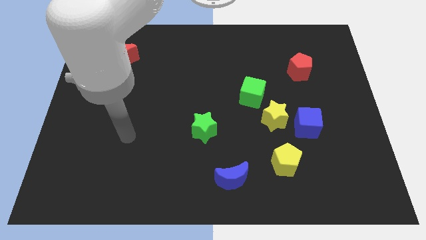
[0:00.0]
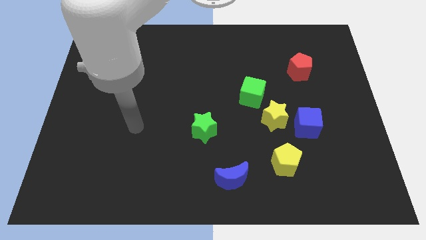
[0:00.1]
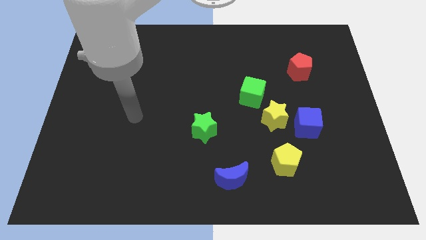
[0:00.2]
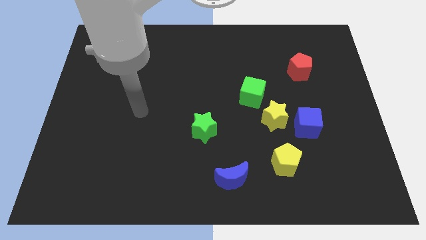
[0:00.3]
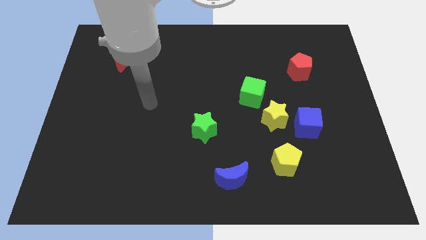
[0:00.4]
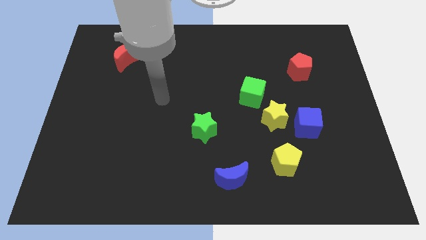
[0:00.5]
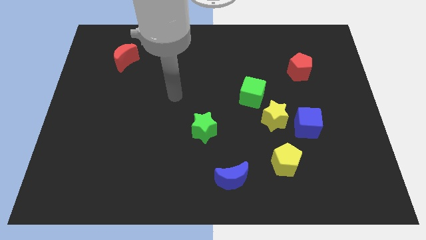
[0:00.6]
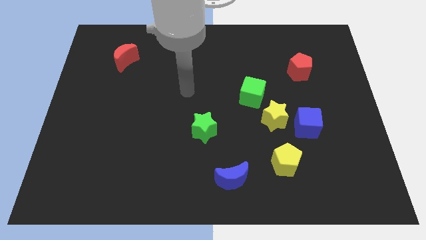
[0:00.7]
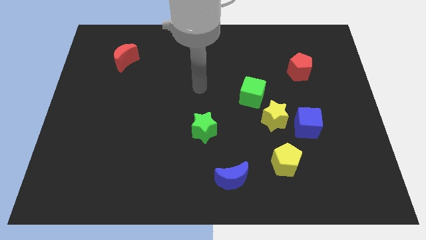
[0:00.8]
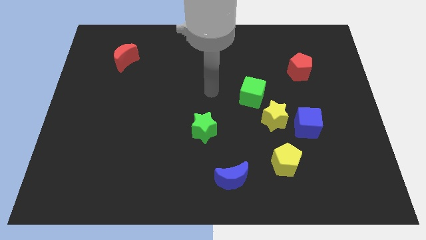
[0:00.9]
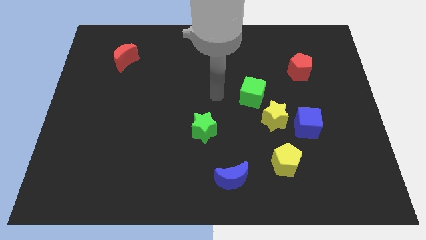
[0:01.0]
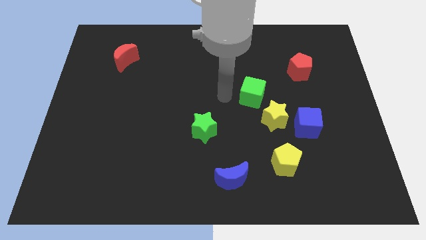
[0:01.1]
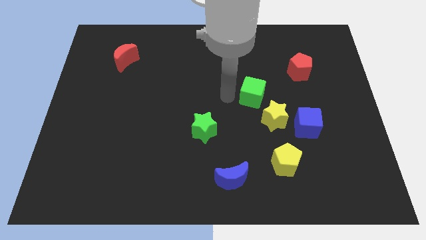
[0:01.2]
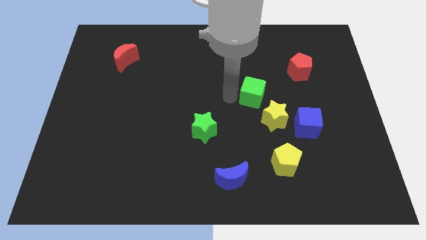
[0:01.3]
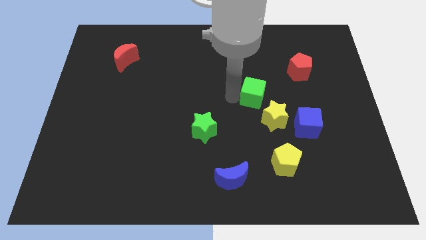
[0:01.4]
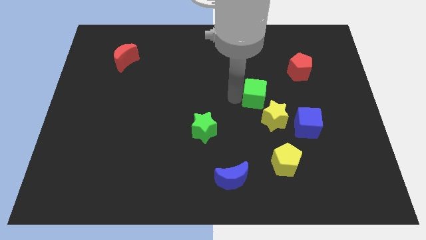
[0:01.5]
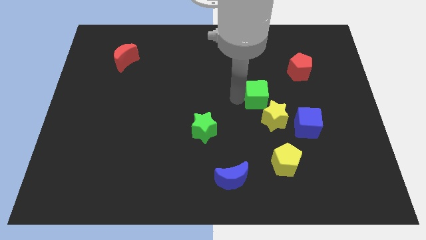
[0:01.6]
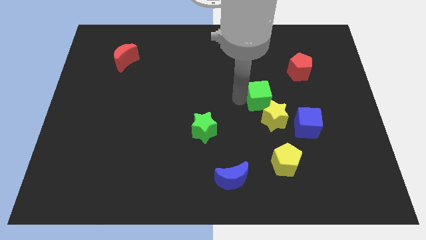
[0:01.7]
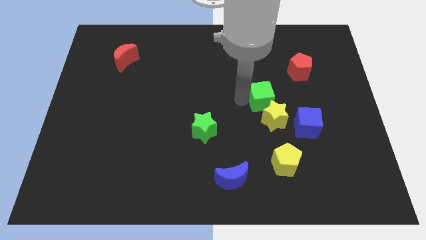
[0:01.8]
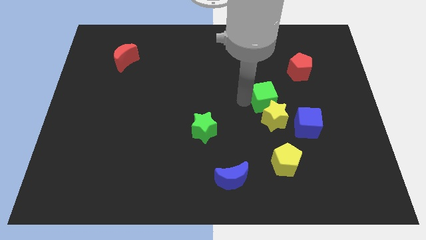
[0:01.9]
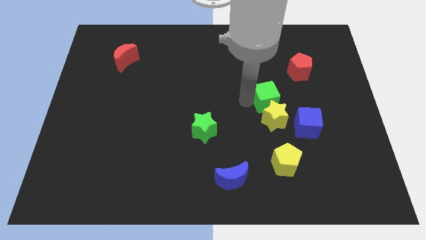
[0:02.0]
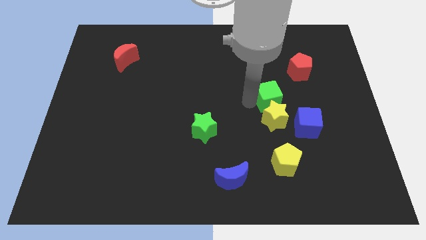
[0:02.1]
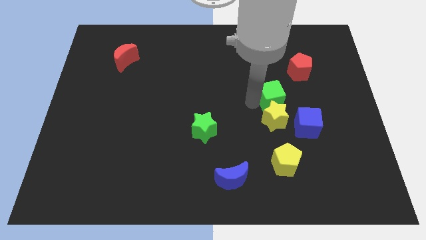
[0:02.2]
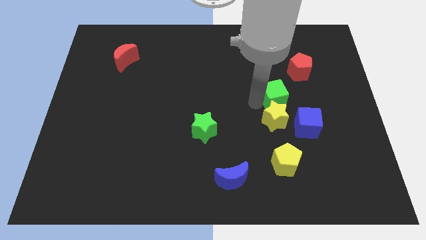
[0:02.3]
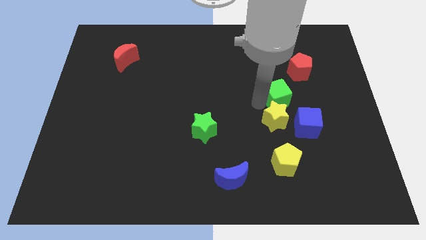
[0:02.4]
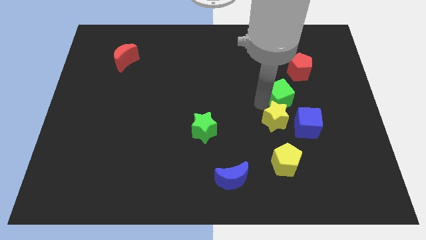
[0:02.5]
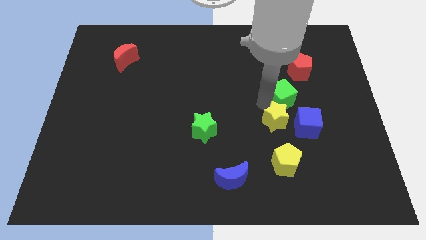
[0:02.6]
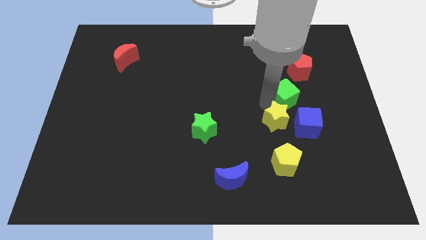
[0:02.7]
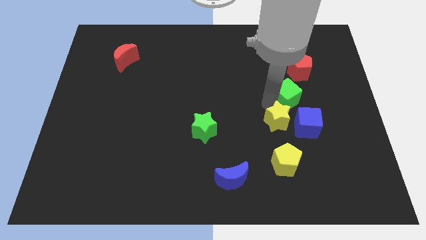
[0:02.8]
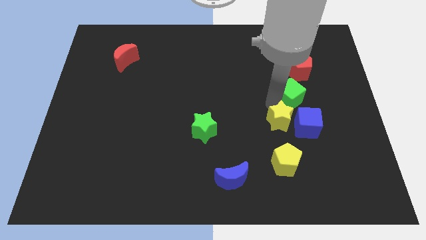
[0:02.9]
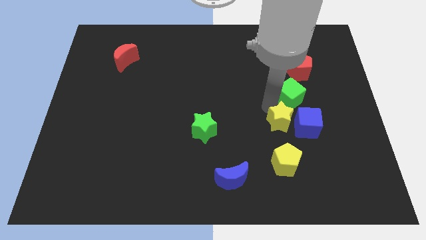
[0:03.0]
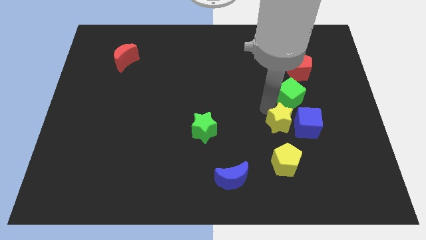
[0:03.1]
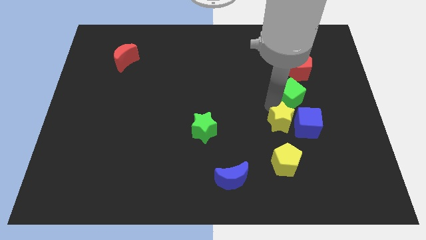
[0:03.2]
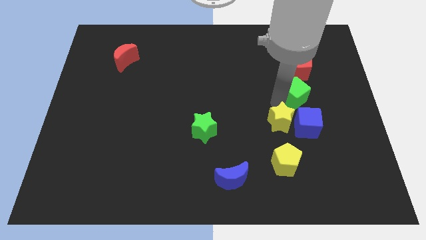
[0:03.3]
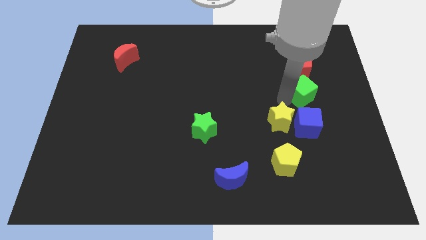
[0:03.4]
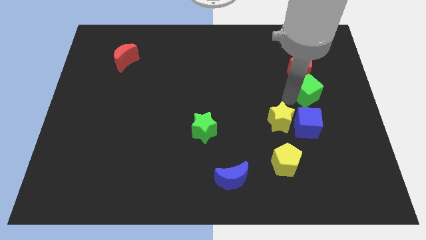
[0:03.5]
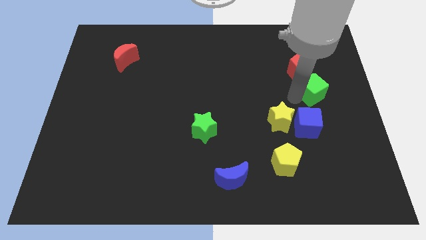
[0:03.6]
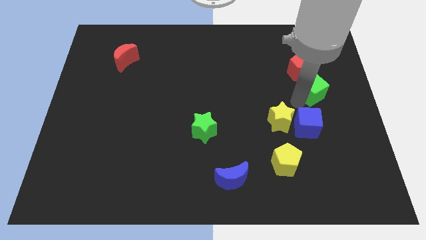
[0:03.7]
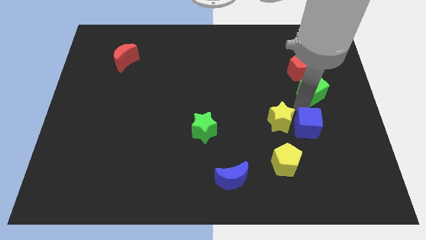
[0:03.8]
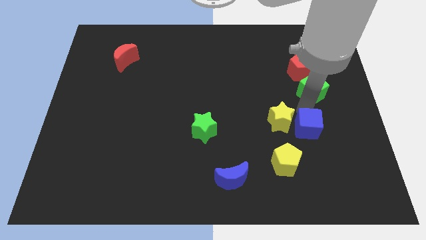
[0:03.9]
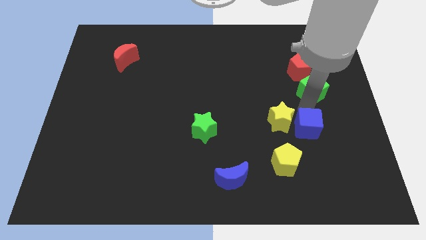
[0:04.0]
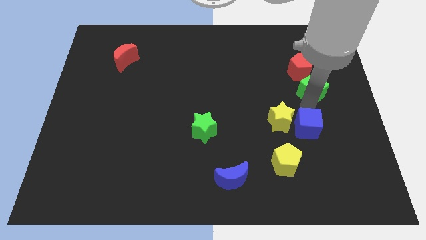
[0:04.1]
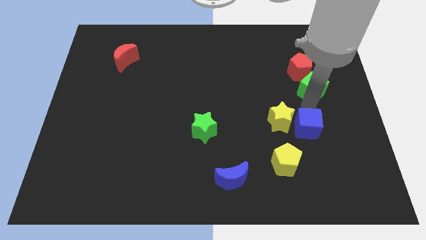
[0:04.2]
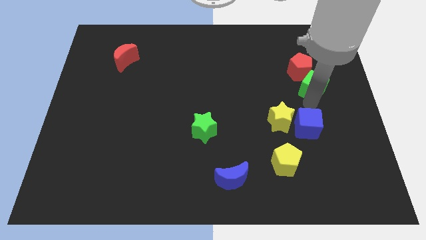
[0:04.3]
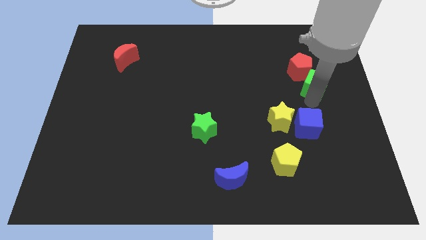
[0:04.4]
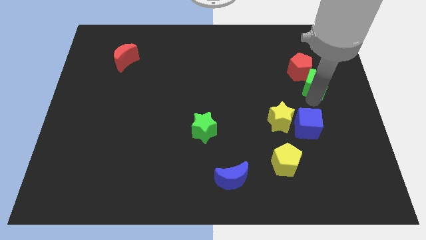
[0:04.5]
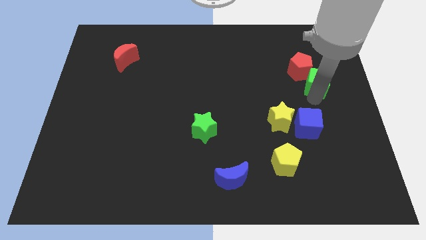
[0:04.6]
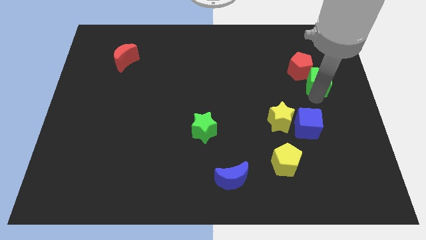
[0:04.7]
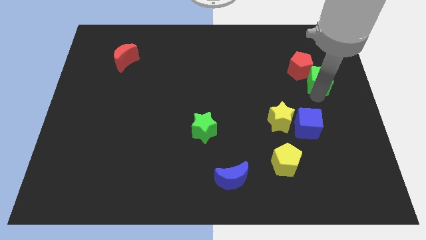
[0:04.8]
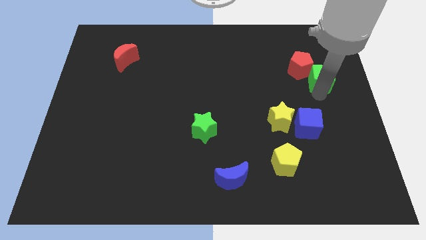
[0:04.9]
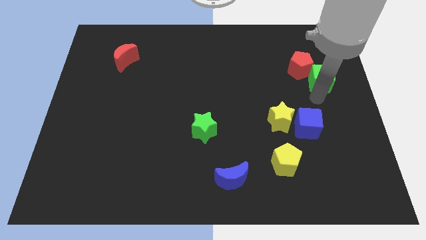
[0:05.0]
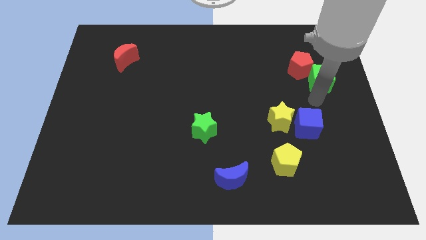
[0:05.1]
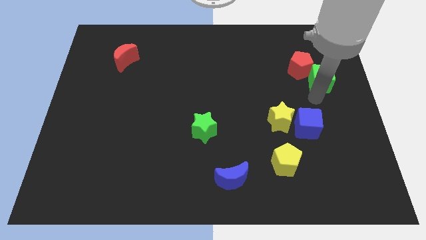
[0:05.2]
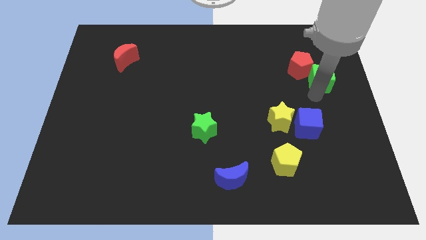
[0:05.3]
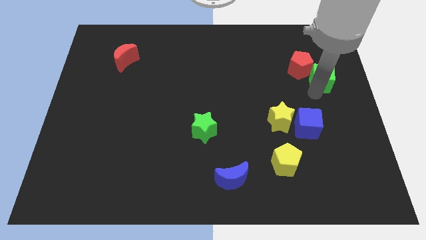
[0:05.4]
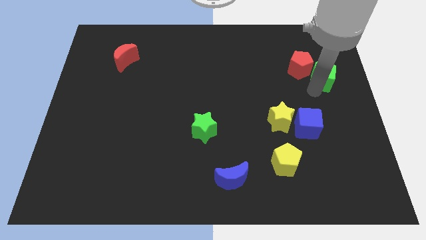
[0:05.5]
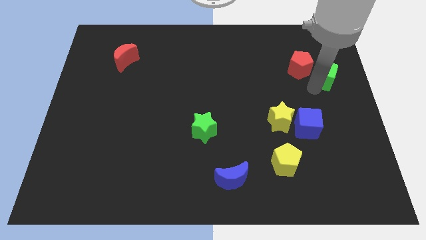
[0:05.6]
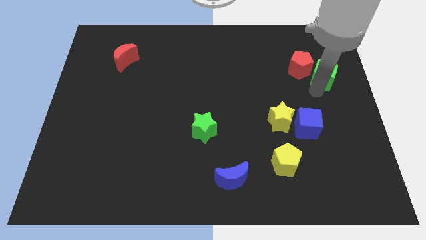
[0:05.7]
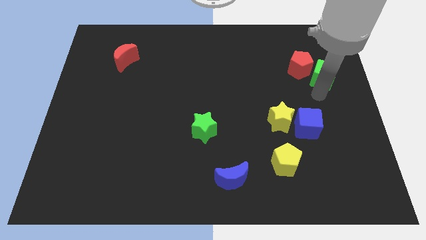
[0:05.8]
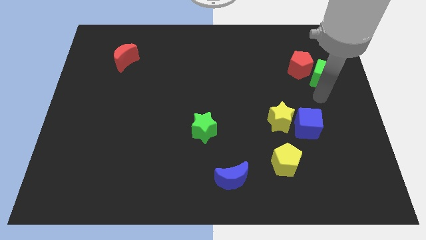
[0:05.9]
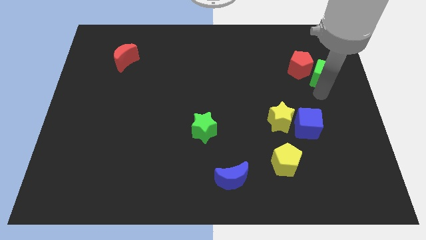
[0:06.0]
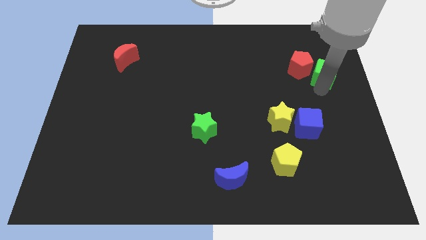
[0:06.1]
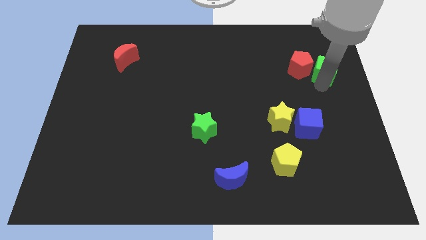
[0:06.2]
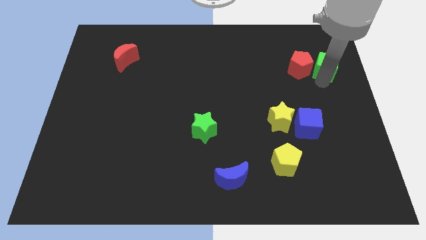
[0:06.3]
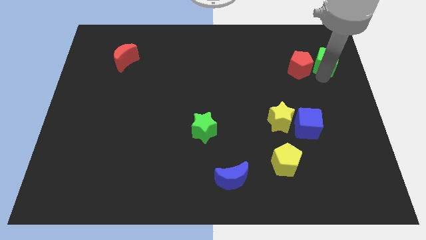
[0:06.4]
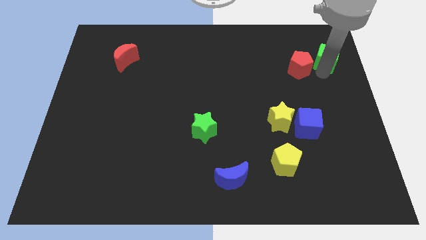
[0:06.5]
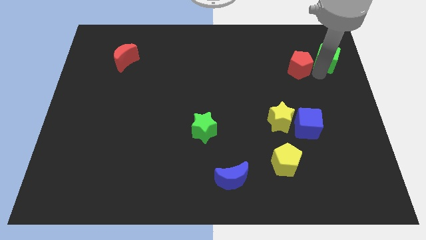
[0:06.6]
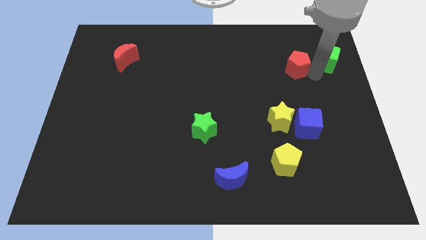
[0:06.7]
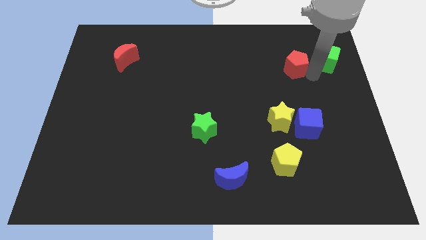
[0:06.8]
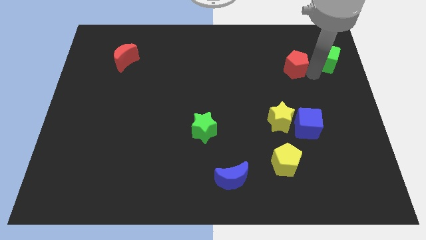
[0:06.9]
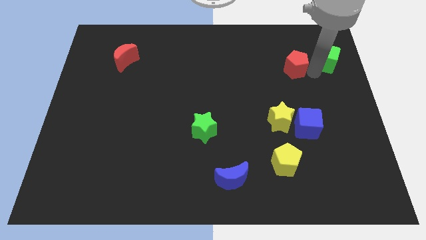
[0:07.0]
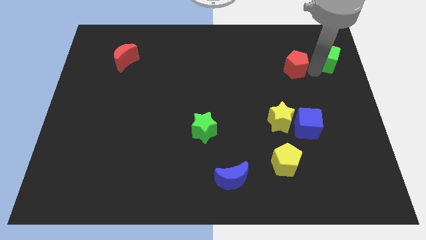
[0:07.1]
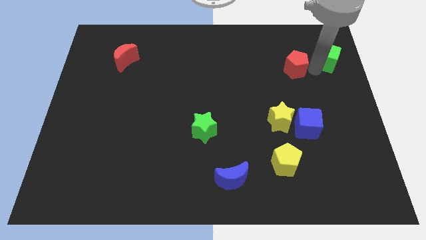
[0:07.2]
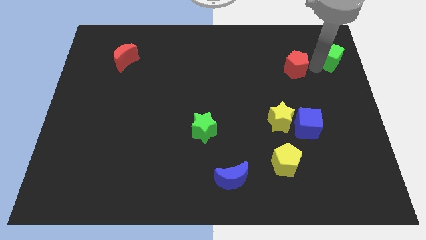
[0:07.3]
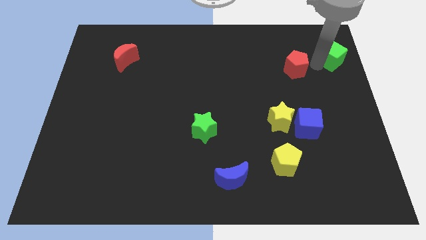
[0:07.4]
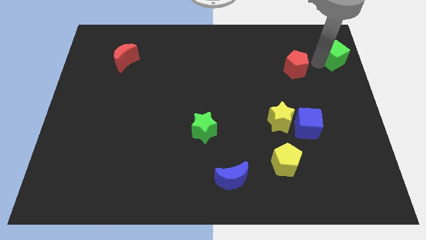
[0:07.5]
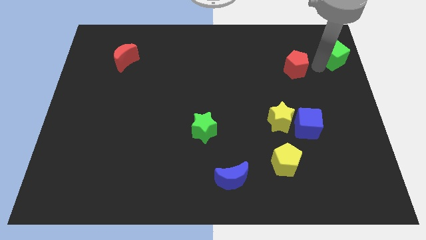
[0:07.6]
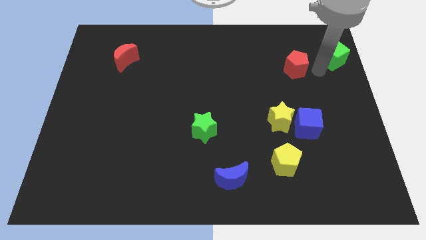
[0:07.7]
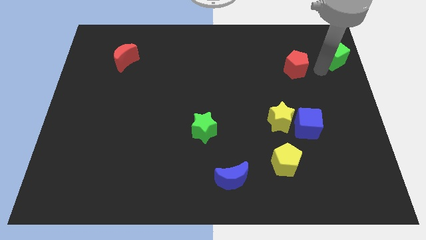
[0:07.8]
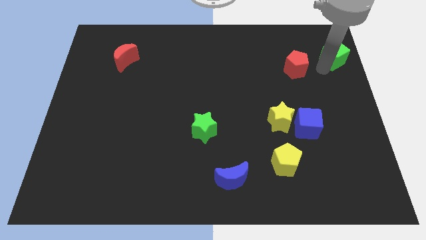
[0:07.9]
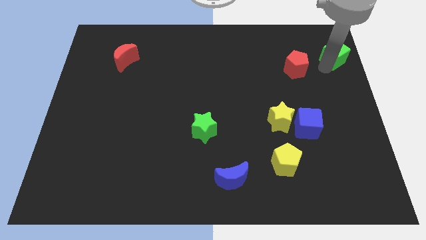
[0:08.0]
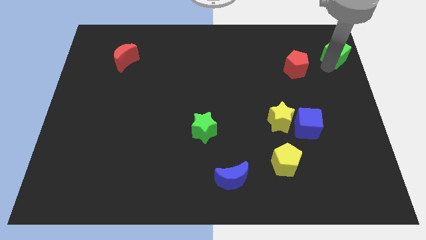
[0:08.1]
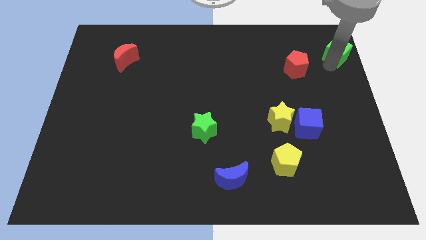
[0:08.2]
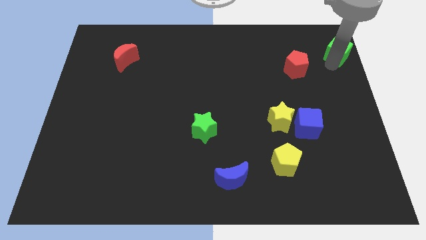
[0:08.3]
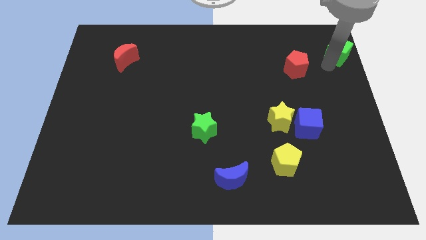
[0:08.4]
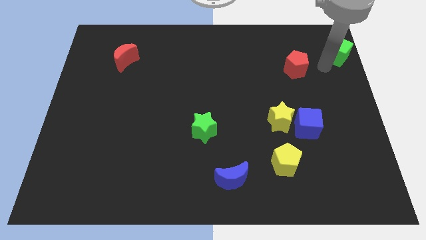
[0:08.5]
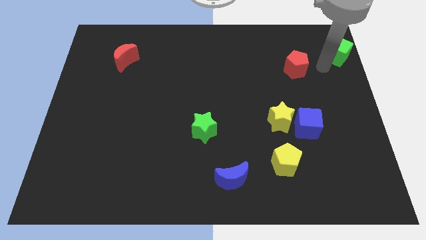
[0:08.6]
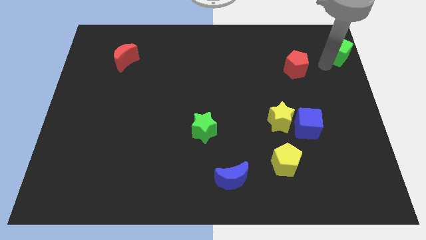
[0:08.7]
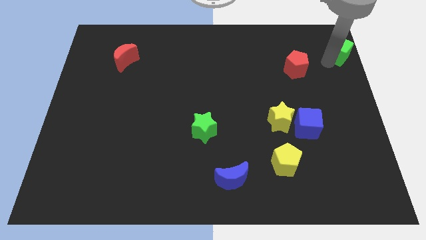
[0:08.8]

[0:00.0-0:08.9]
move the green cube to the top right of the board
